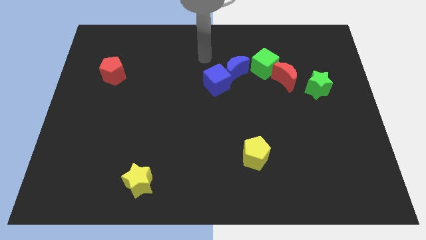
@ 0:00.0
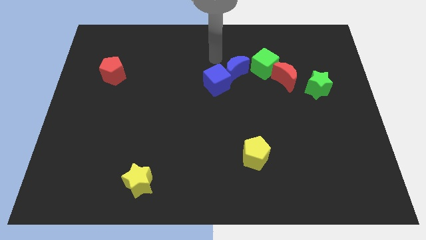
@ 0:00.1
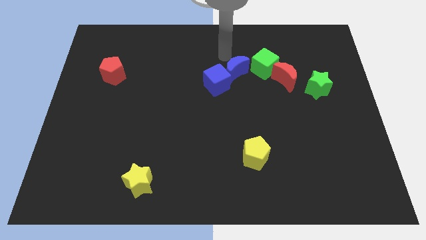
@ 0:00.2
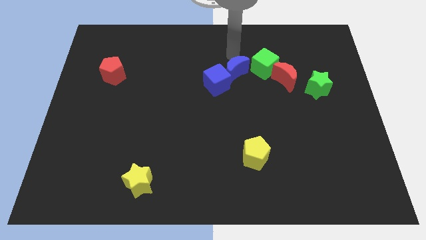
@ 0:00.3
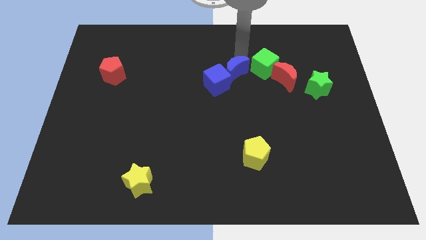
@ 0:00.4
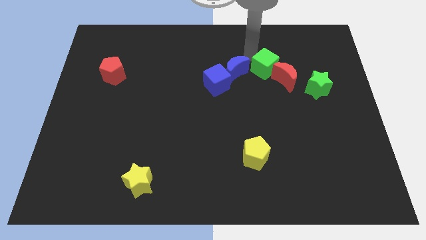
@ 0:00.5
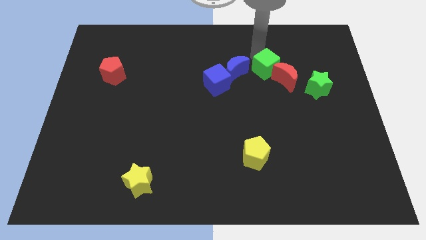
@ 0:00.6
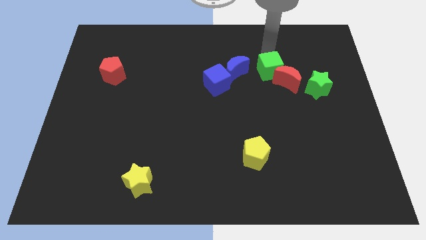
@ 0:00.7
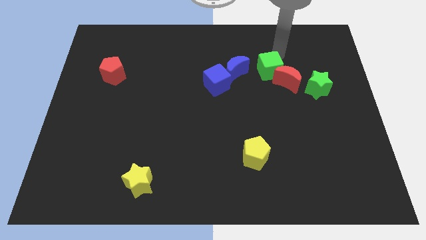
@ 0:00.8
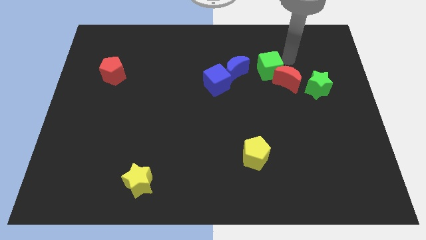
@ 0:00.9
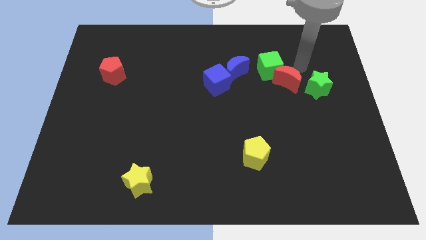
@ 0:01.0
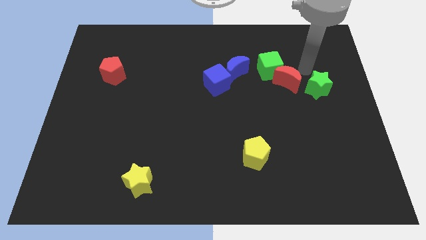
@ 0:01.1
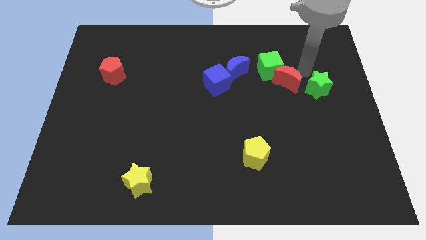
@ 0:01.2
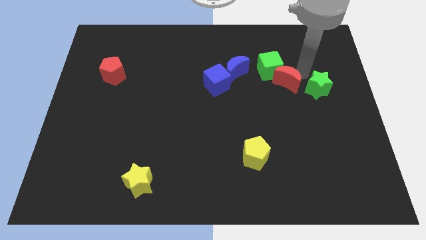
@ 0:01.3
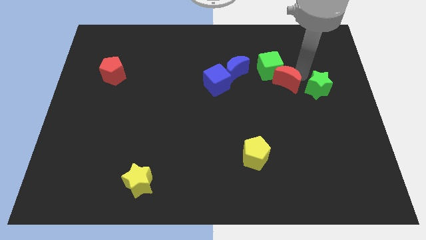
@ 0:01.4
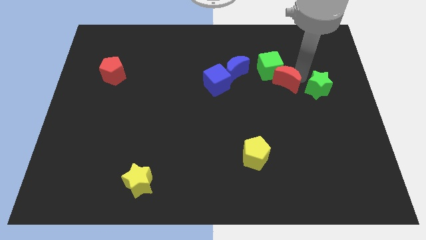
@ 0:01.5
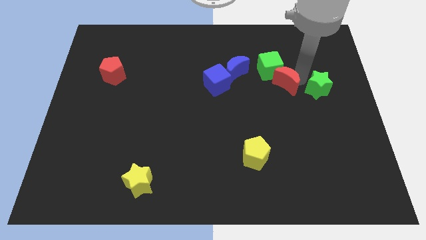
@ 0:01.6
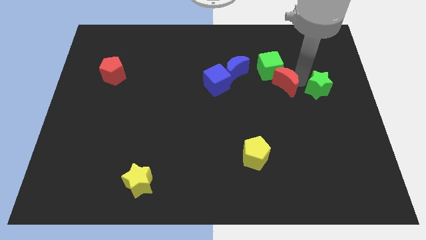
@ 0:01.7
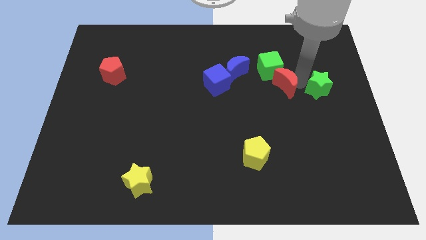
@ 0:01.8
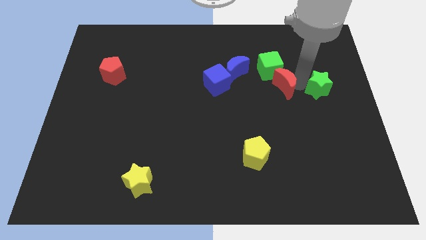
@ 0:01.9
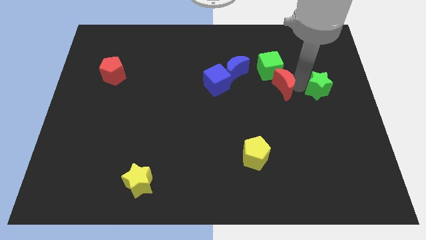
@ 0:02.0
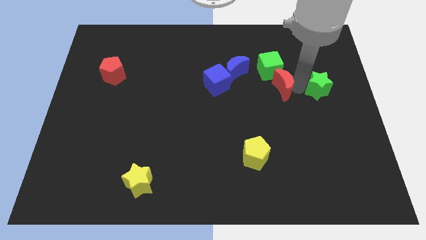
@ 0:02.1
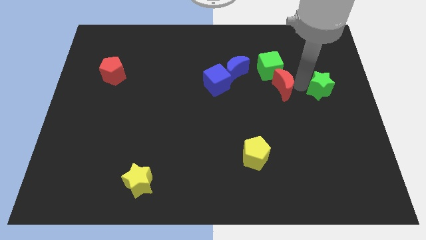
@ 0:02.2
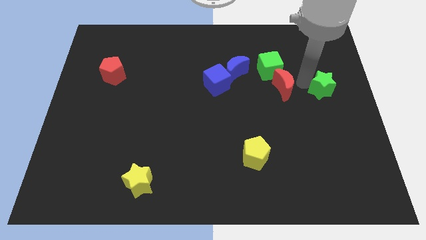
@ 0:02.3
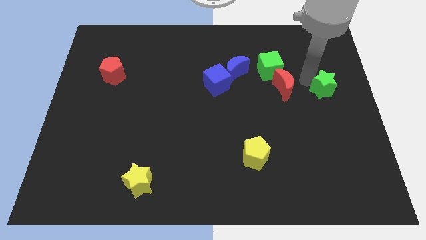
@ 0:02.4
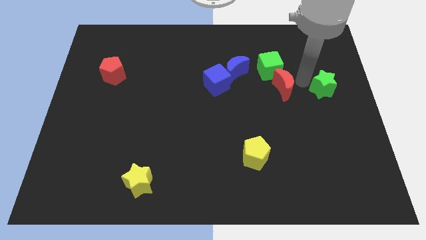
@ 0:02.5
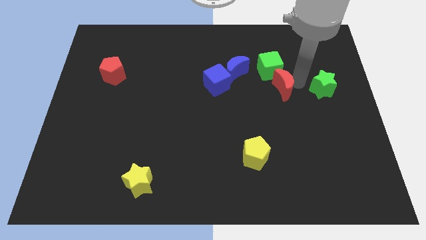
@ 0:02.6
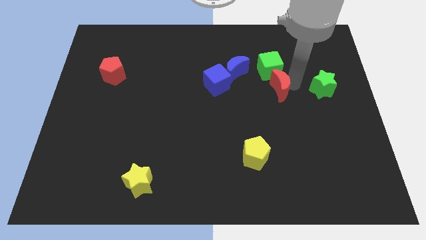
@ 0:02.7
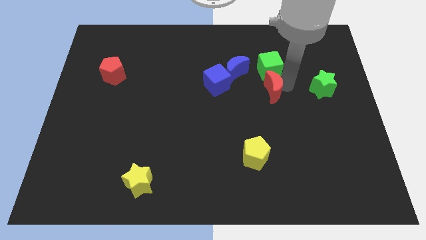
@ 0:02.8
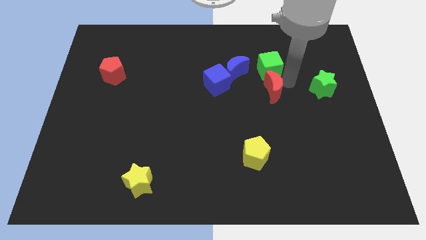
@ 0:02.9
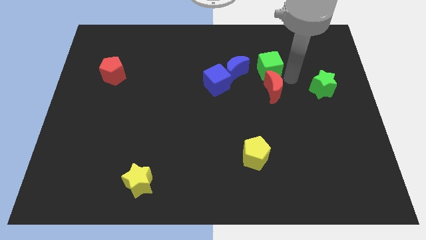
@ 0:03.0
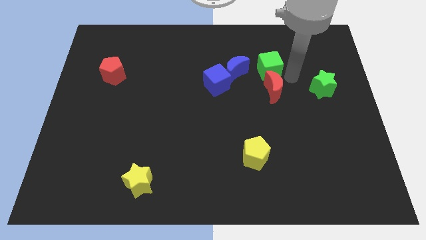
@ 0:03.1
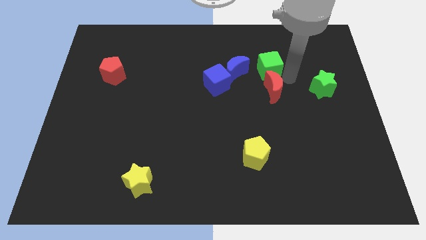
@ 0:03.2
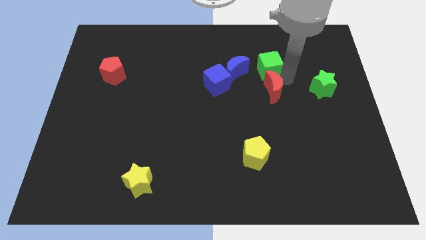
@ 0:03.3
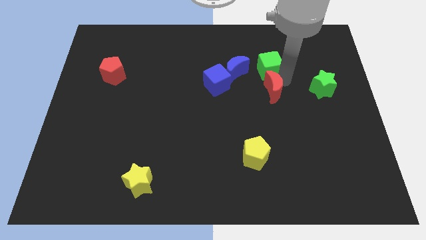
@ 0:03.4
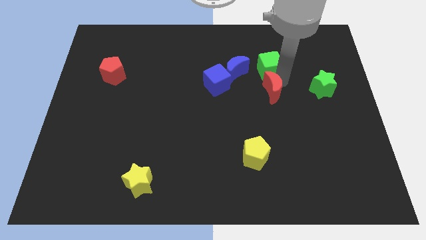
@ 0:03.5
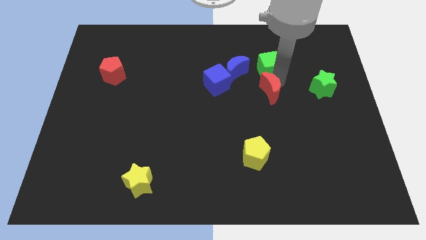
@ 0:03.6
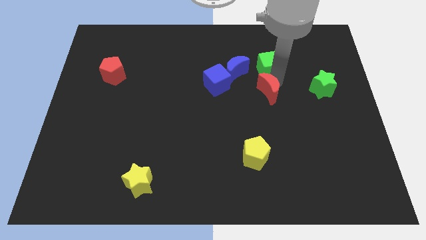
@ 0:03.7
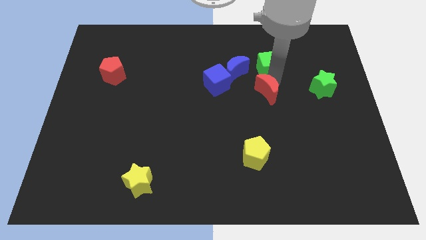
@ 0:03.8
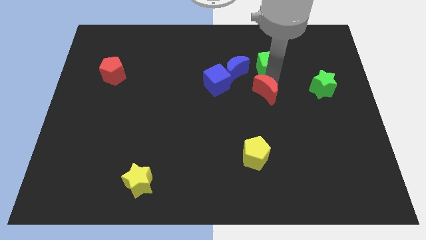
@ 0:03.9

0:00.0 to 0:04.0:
slightly slide the red moon diagonally downwards and left

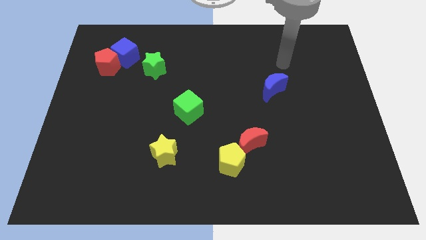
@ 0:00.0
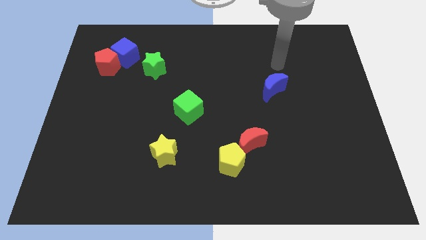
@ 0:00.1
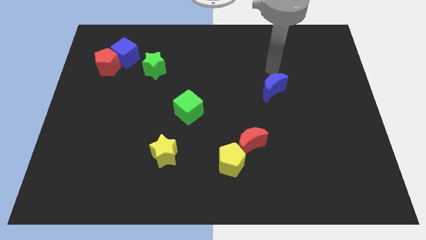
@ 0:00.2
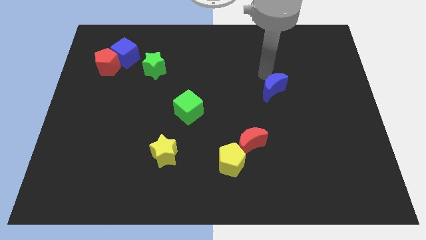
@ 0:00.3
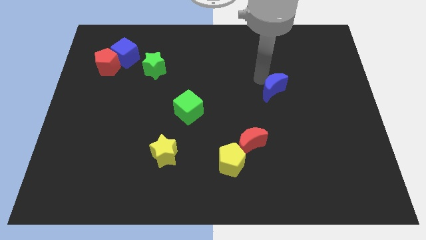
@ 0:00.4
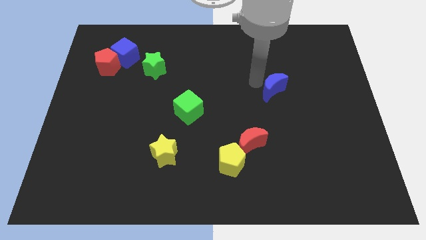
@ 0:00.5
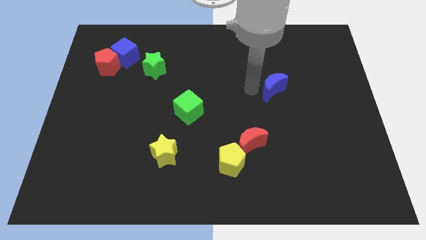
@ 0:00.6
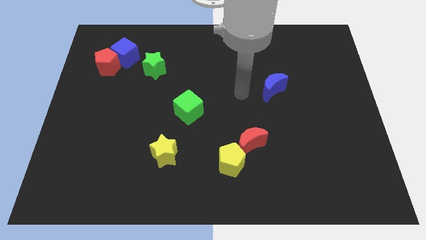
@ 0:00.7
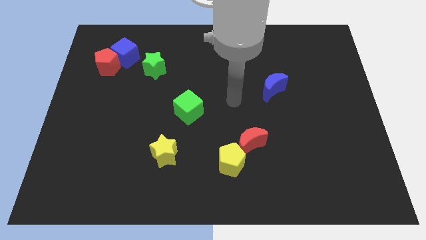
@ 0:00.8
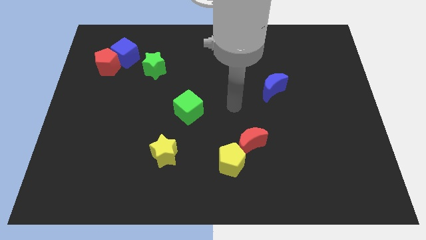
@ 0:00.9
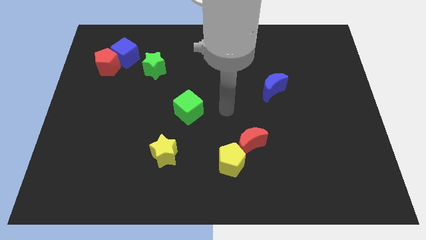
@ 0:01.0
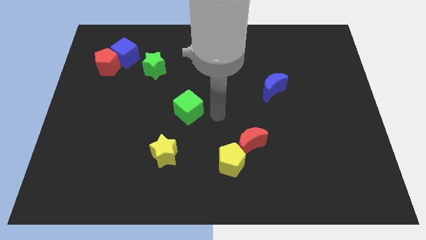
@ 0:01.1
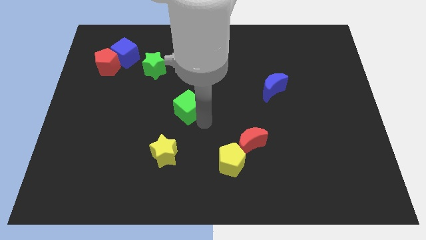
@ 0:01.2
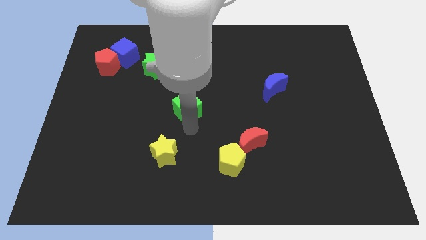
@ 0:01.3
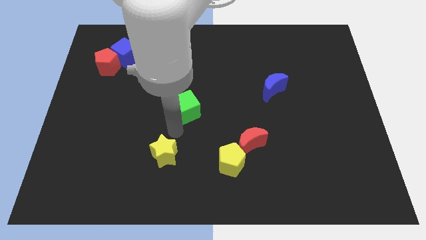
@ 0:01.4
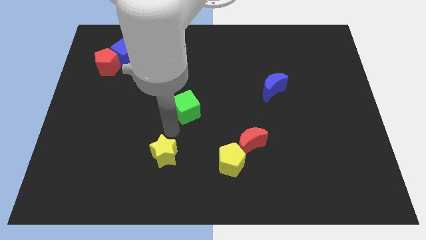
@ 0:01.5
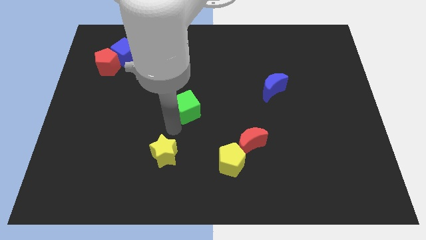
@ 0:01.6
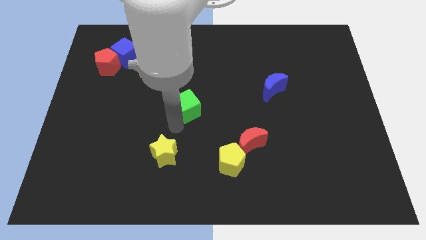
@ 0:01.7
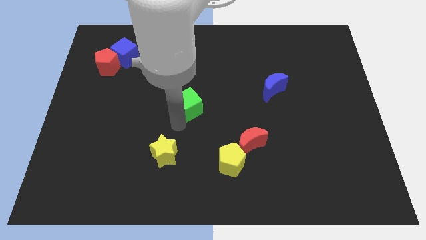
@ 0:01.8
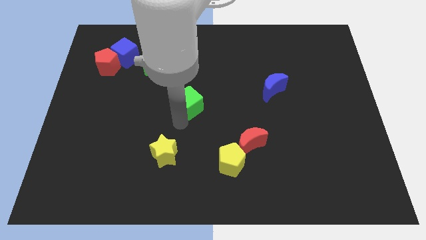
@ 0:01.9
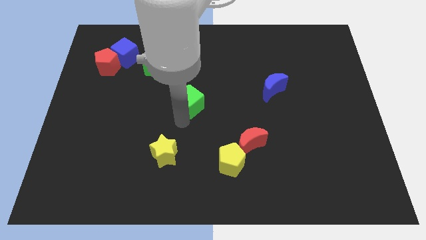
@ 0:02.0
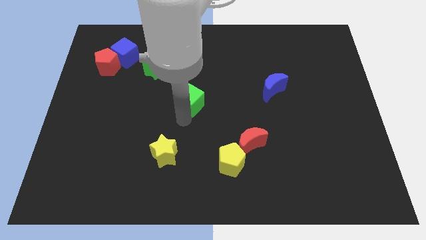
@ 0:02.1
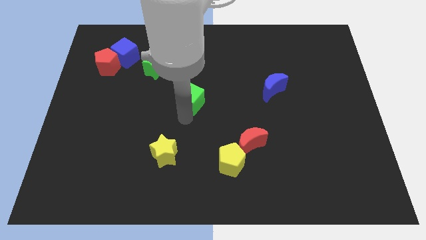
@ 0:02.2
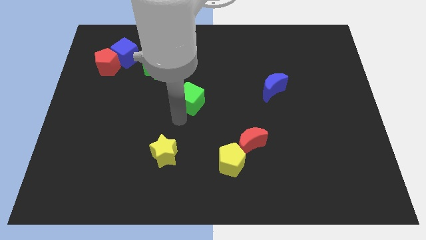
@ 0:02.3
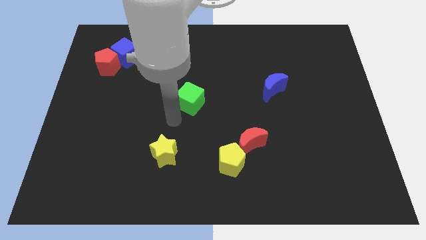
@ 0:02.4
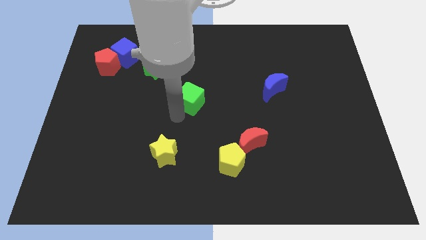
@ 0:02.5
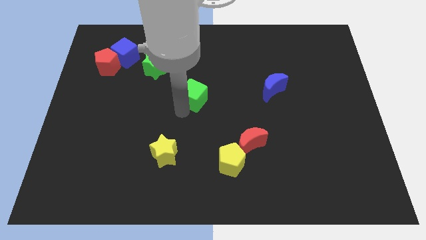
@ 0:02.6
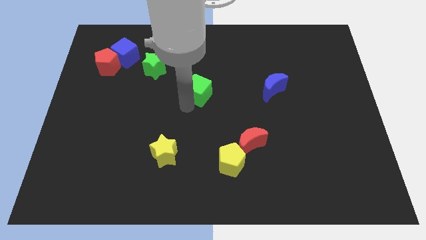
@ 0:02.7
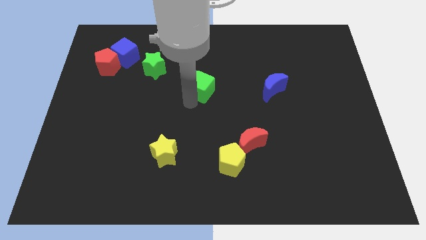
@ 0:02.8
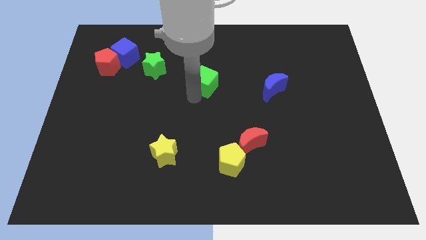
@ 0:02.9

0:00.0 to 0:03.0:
slide the green cube a little upwards and right diagonally

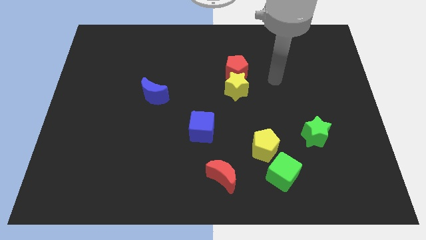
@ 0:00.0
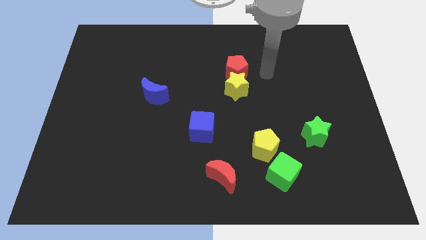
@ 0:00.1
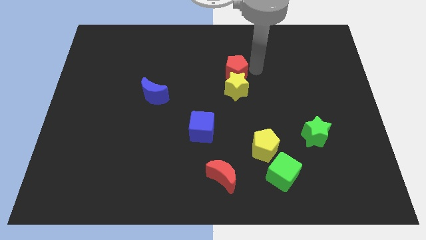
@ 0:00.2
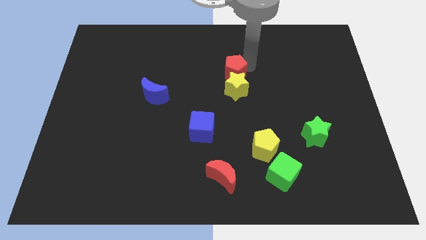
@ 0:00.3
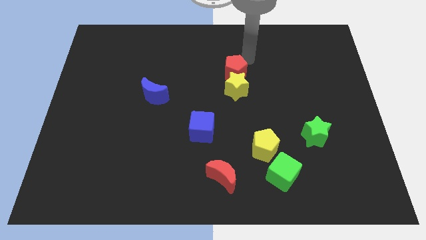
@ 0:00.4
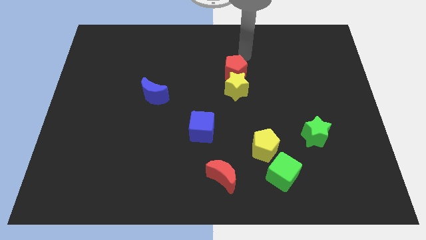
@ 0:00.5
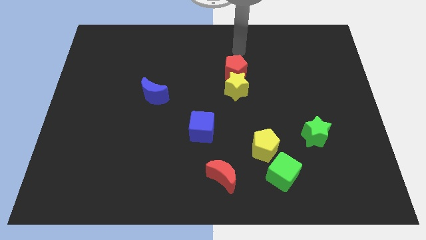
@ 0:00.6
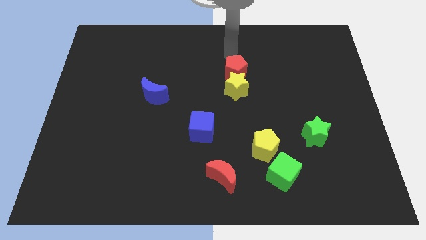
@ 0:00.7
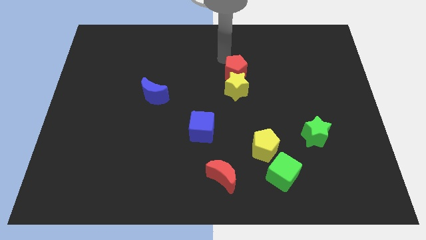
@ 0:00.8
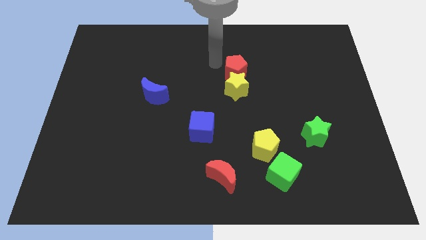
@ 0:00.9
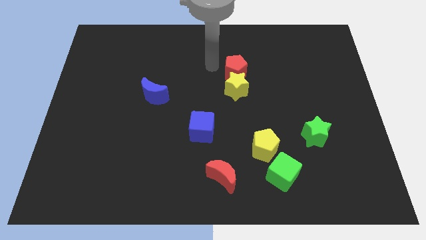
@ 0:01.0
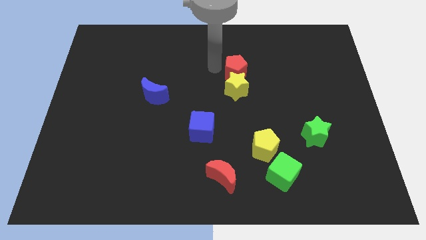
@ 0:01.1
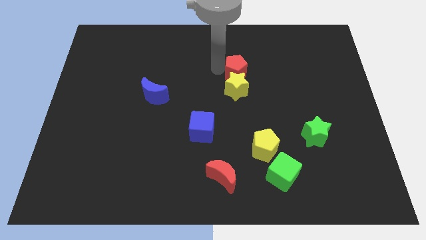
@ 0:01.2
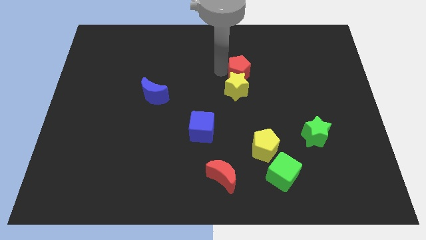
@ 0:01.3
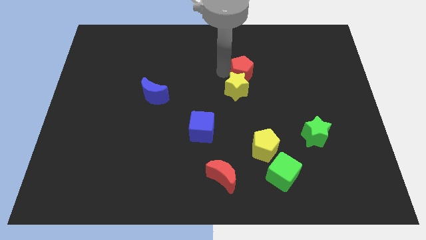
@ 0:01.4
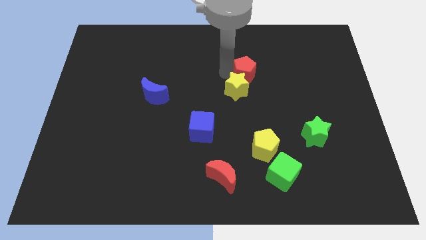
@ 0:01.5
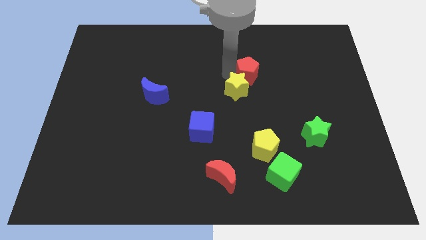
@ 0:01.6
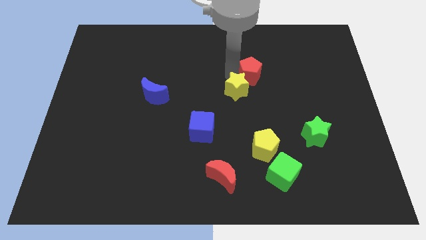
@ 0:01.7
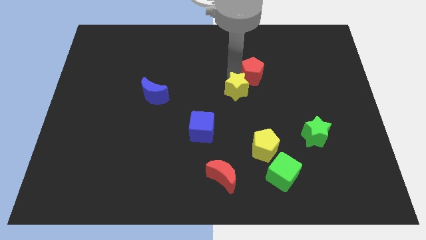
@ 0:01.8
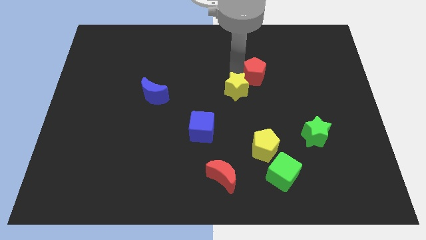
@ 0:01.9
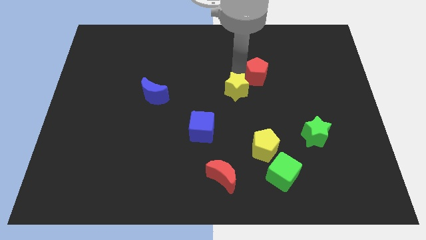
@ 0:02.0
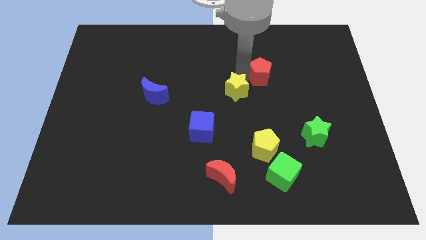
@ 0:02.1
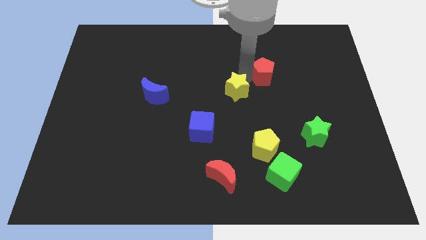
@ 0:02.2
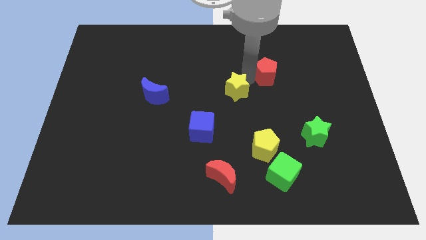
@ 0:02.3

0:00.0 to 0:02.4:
slightly move the red pentagon right
